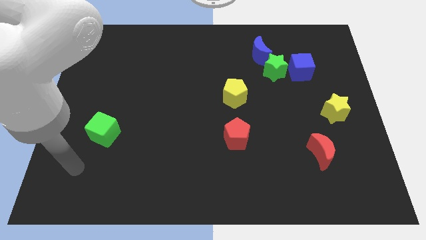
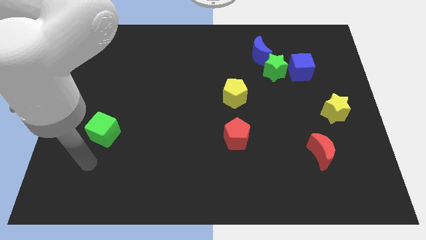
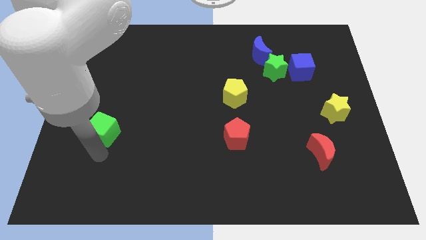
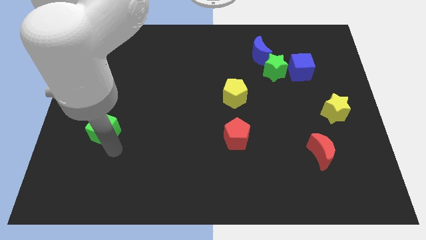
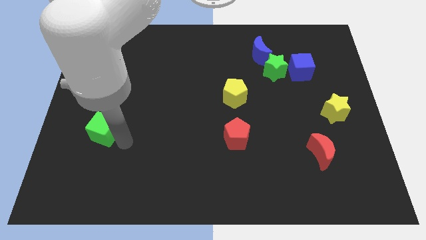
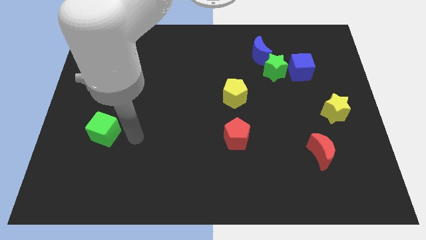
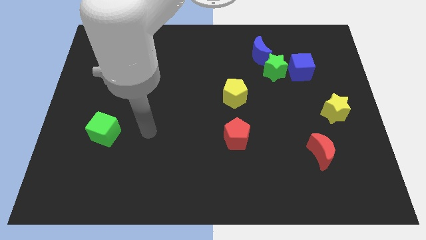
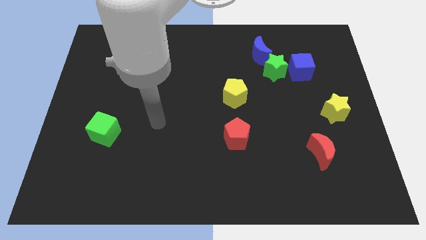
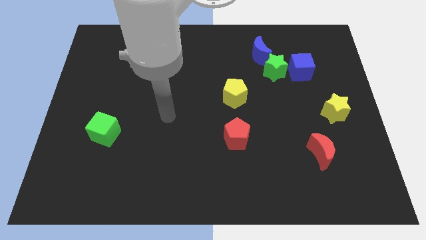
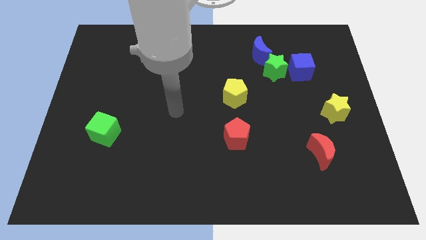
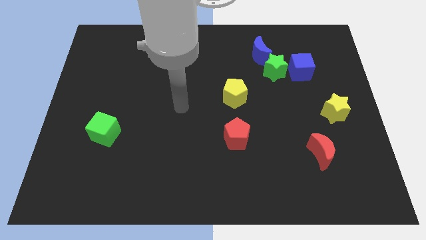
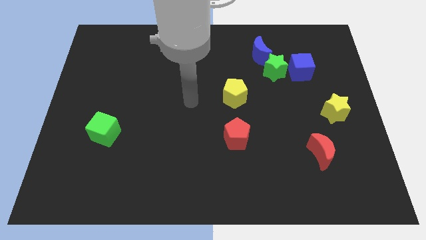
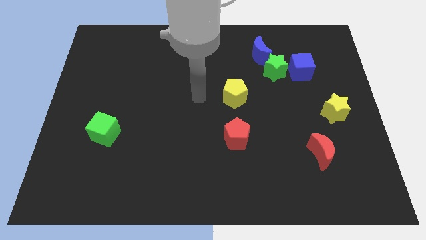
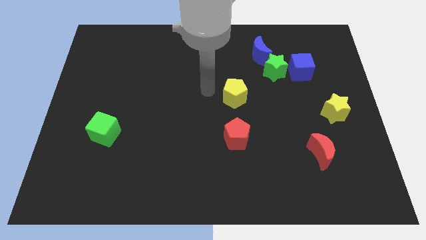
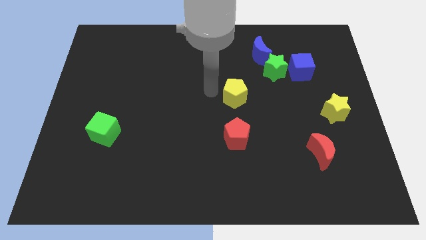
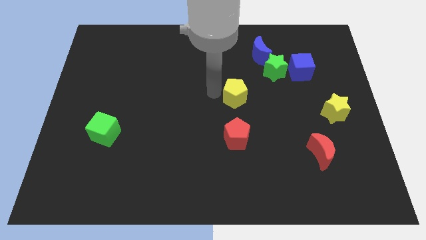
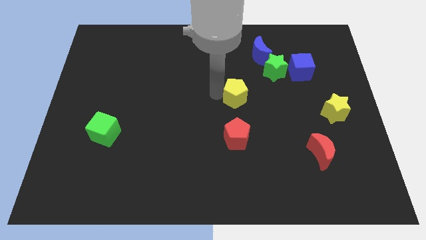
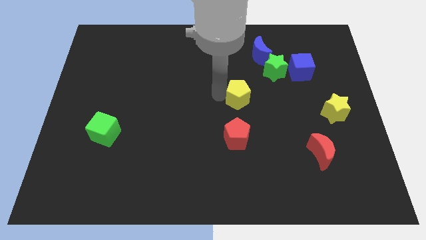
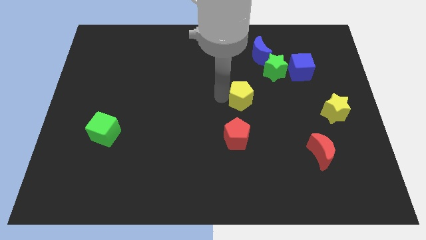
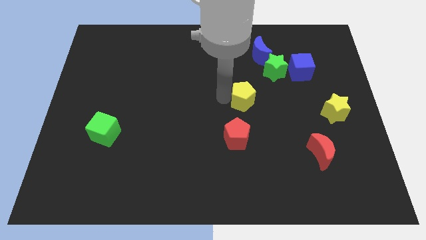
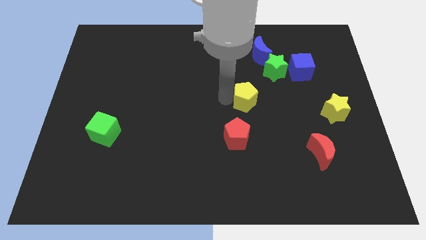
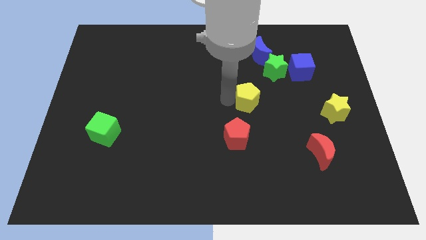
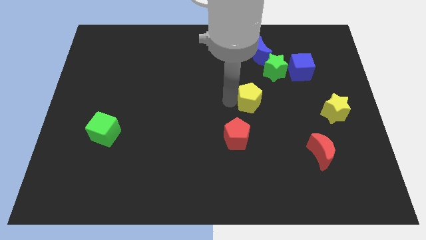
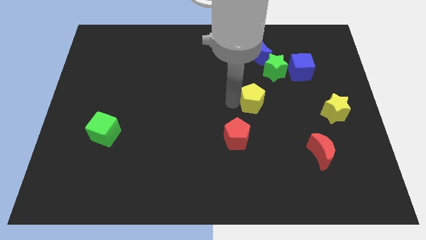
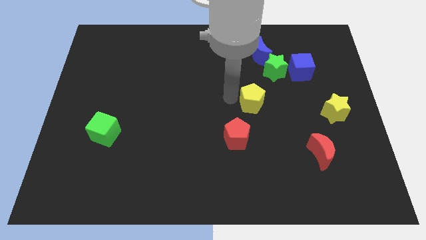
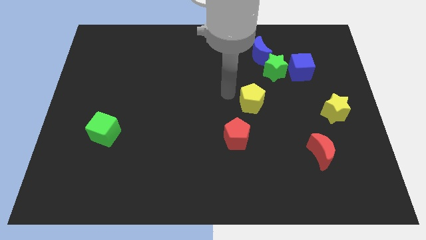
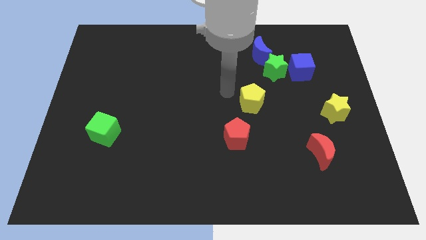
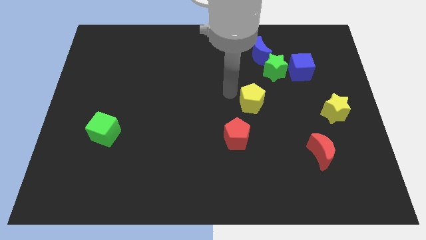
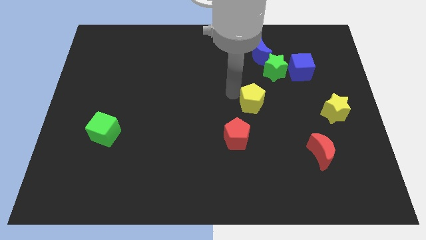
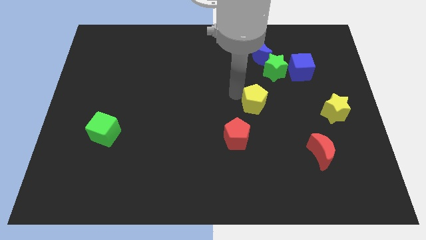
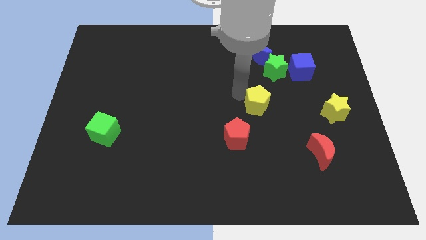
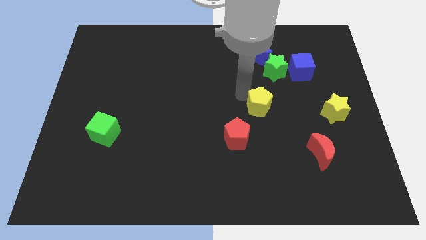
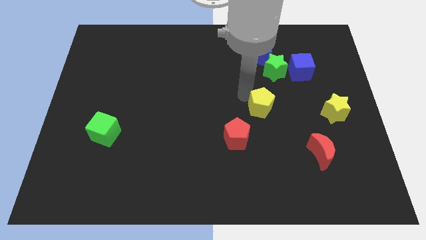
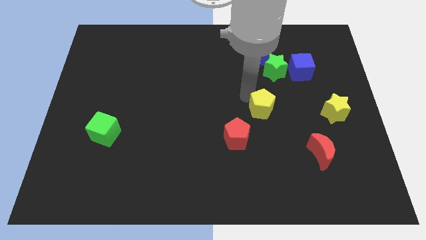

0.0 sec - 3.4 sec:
slide the yellow pentagon downwards and then to the right a little bit

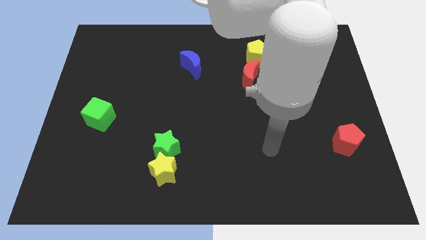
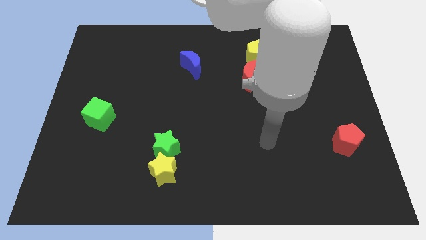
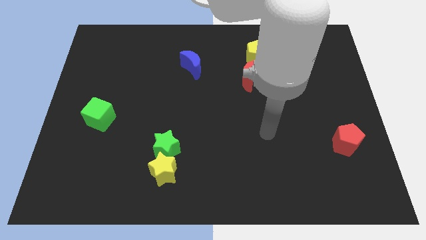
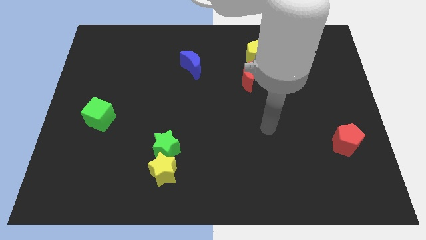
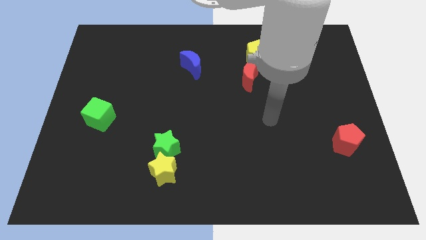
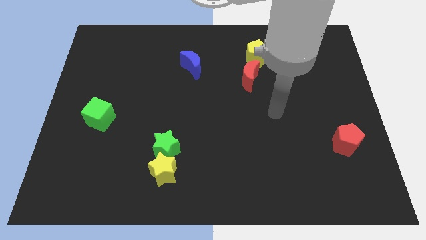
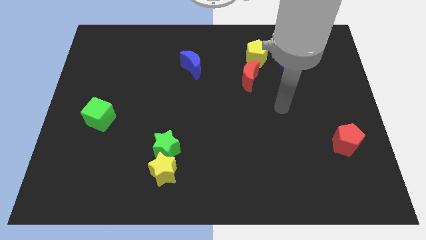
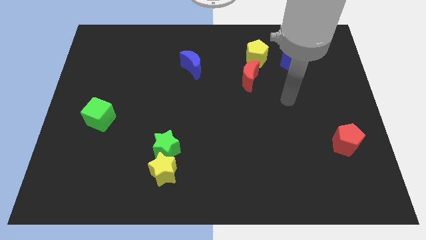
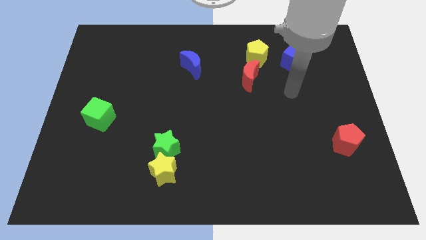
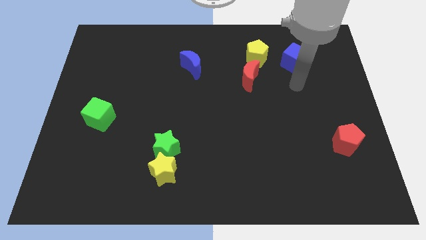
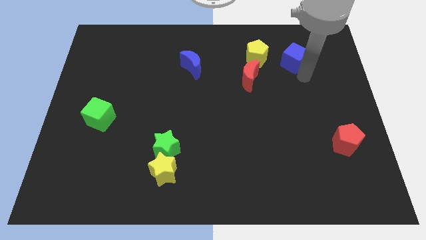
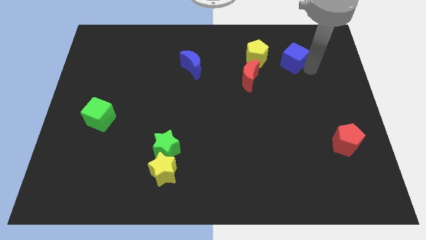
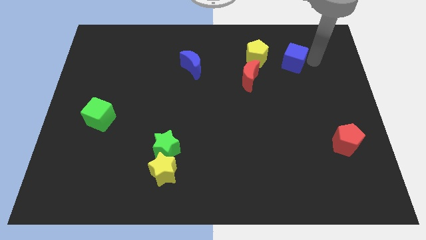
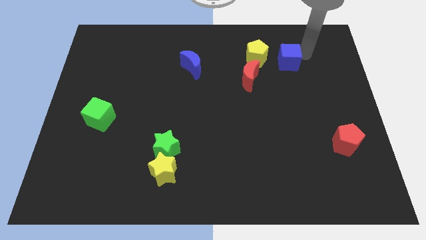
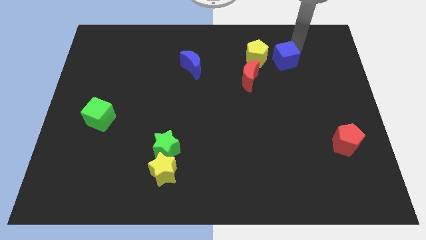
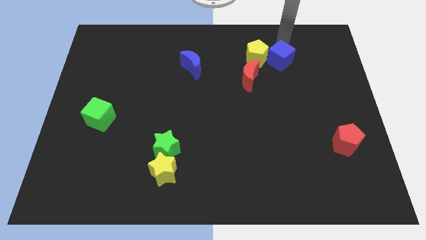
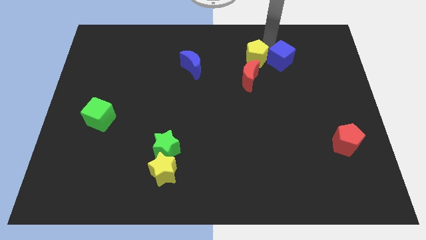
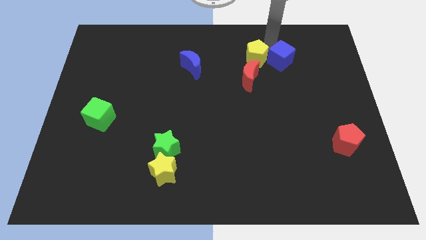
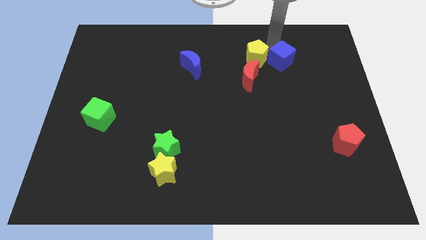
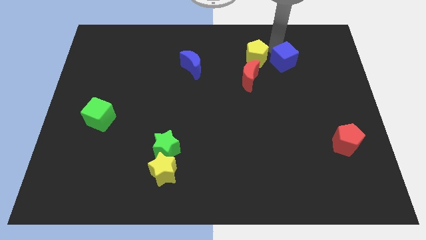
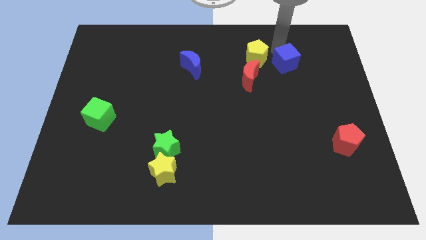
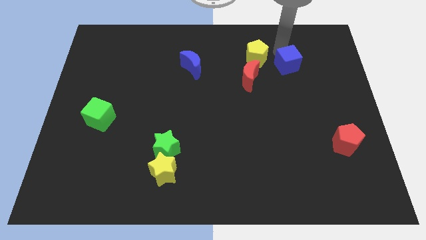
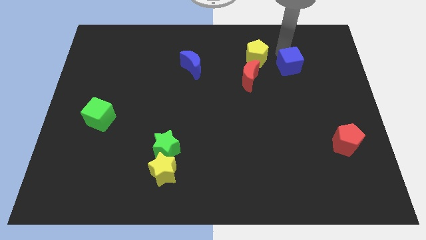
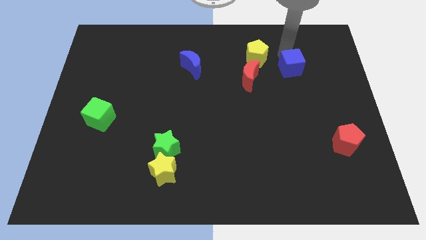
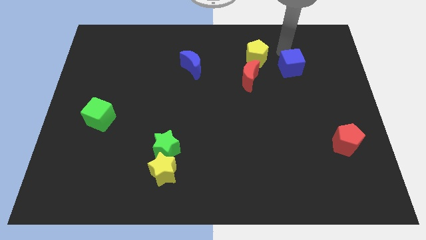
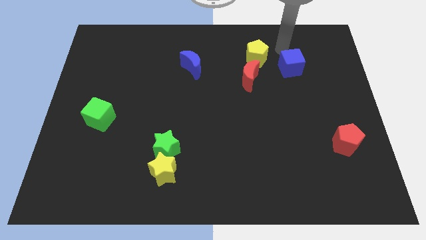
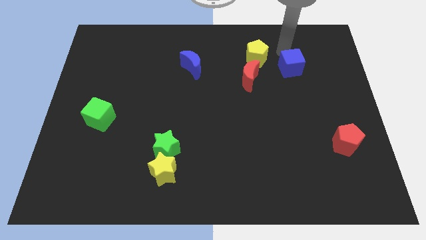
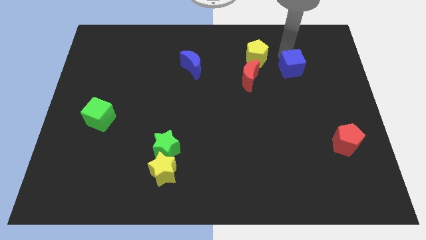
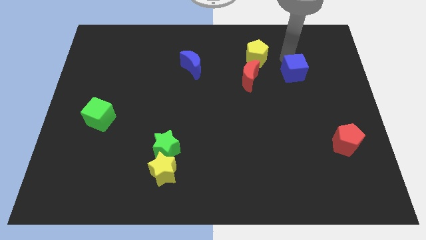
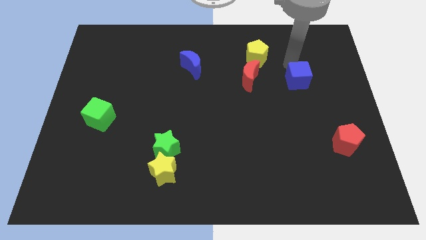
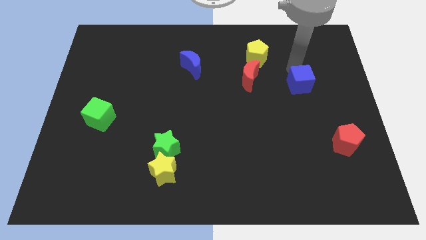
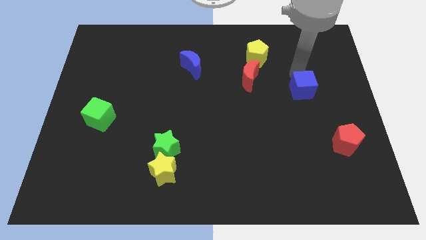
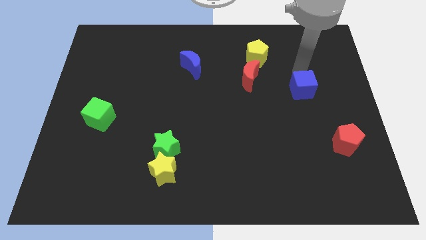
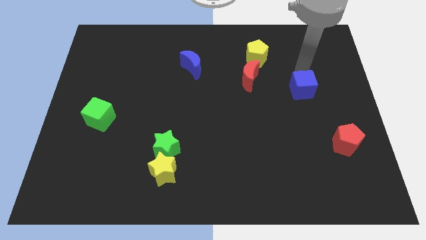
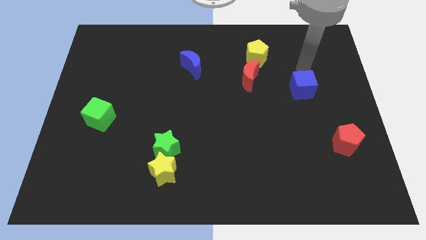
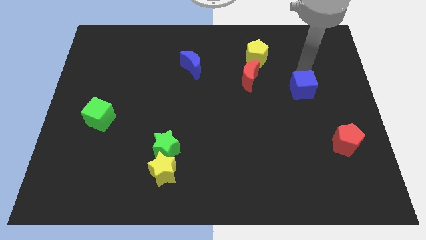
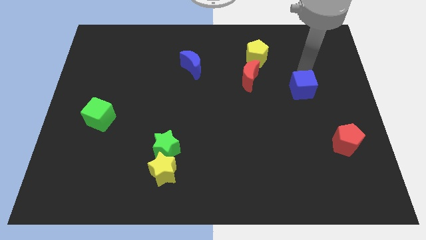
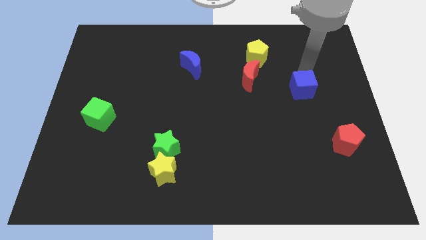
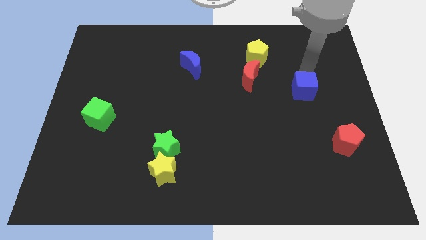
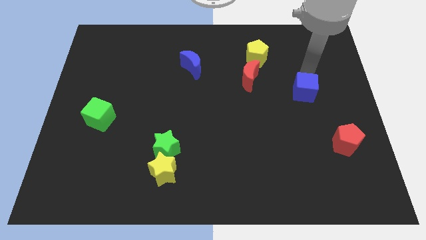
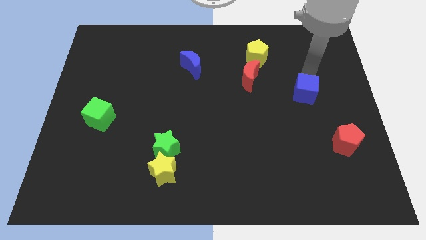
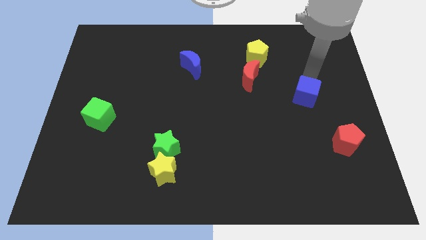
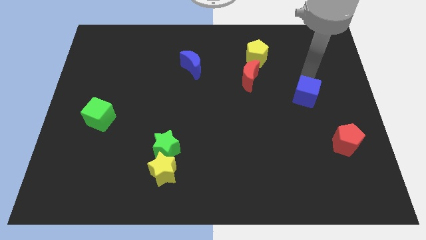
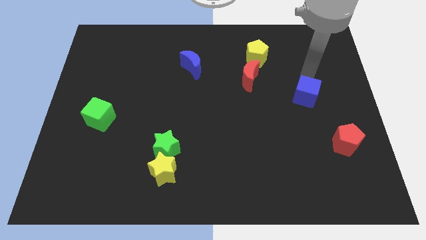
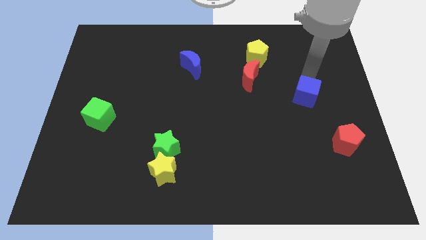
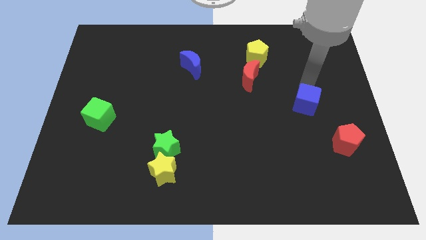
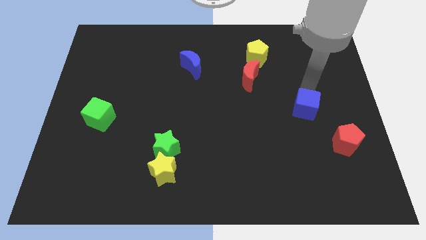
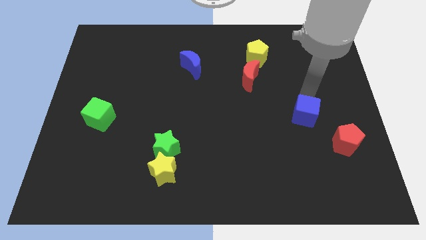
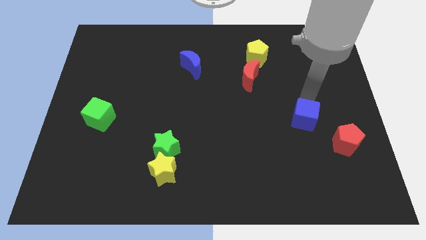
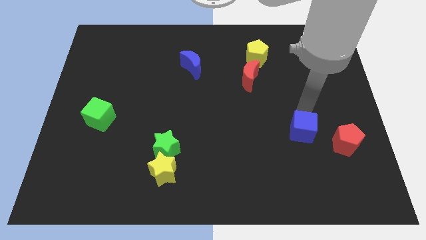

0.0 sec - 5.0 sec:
push the blue cube downwards
